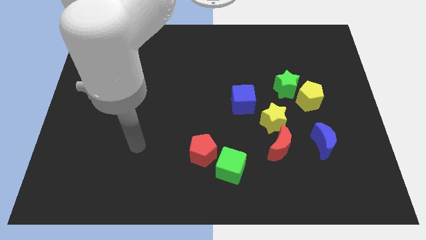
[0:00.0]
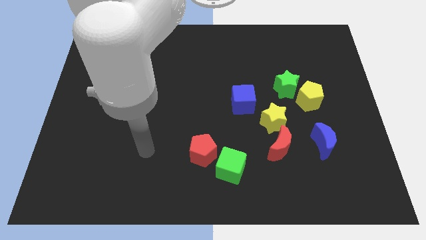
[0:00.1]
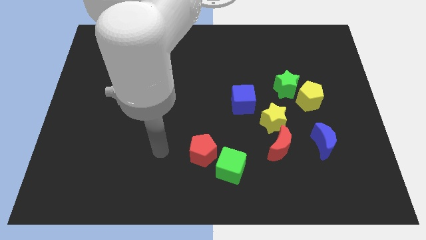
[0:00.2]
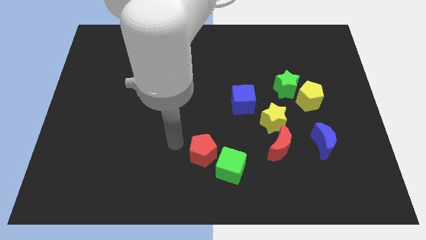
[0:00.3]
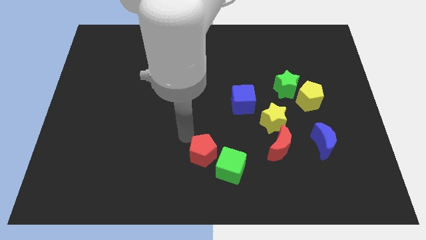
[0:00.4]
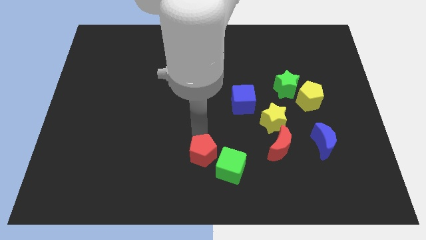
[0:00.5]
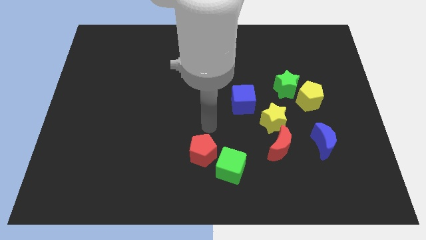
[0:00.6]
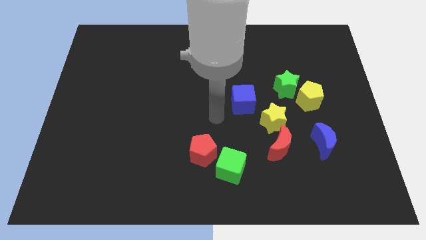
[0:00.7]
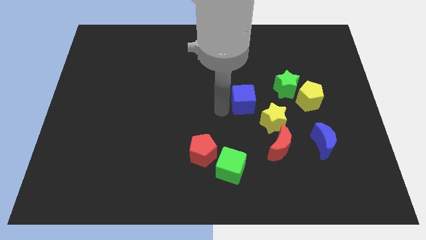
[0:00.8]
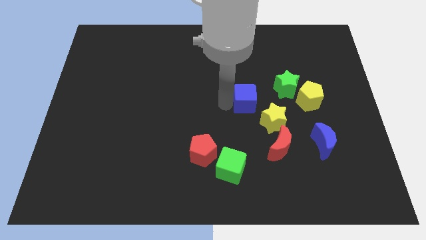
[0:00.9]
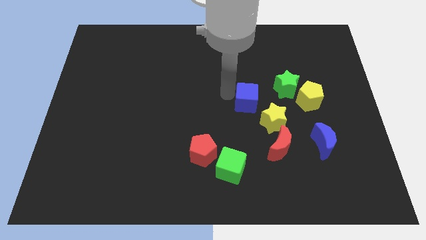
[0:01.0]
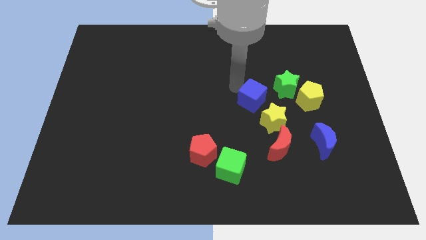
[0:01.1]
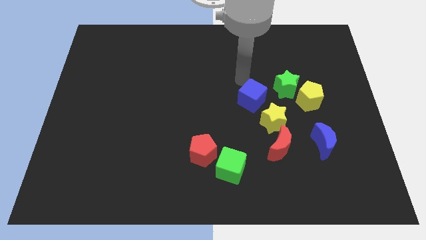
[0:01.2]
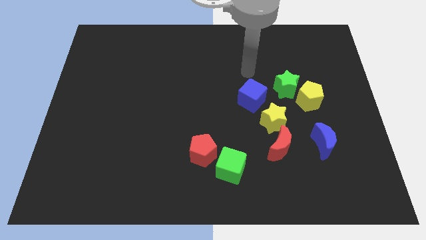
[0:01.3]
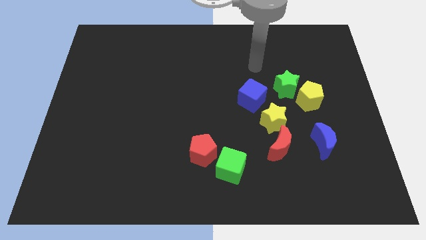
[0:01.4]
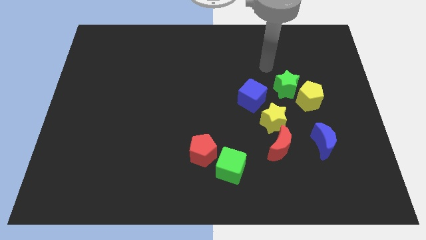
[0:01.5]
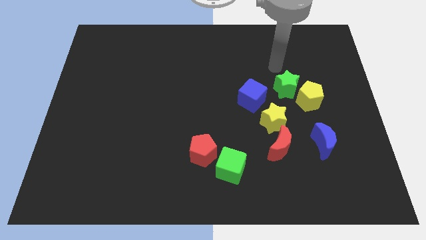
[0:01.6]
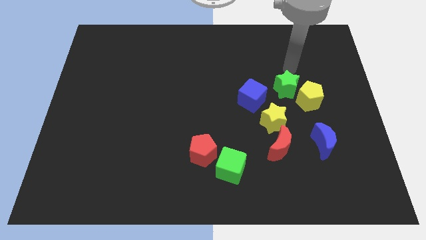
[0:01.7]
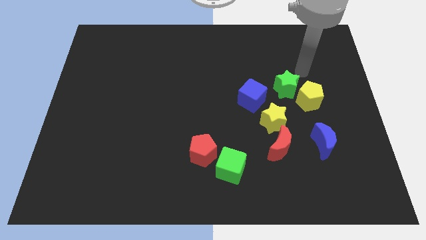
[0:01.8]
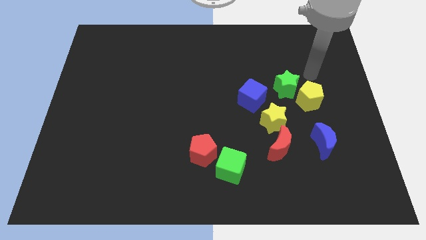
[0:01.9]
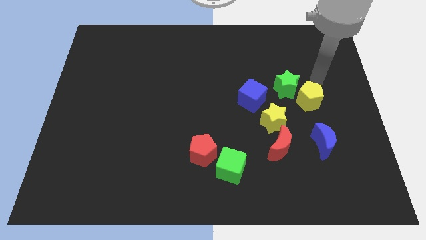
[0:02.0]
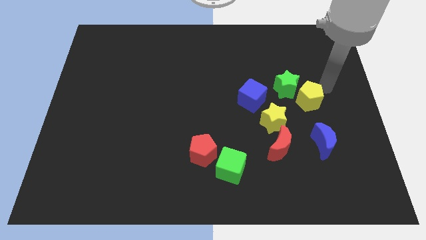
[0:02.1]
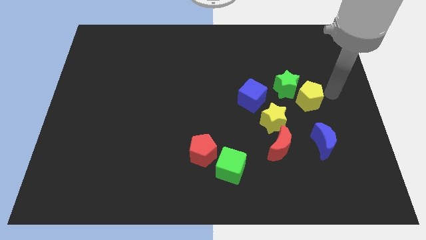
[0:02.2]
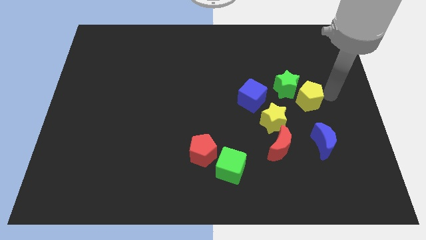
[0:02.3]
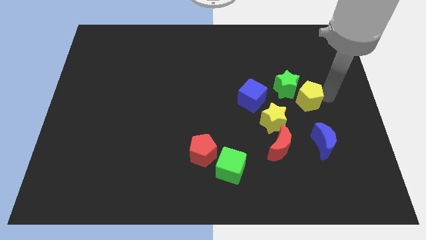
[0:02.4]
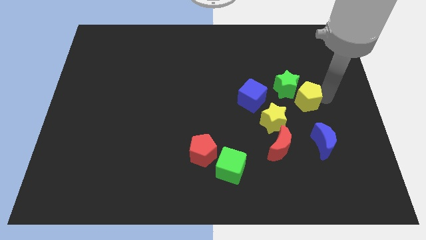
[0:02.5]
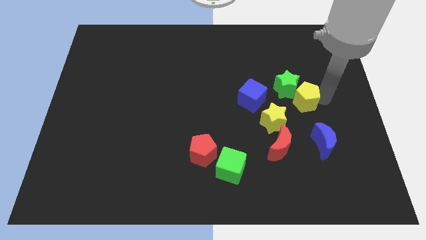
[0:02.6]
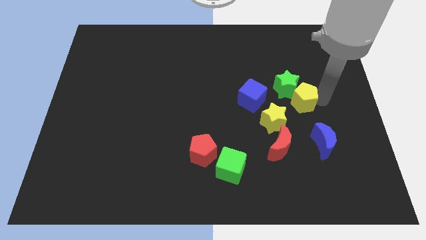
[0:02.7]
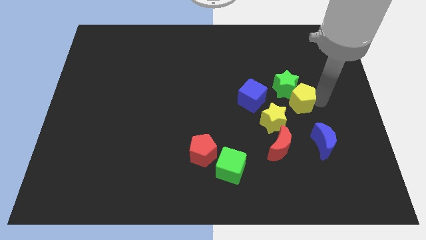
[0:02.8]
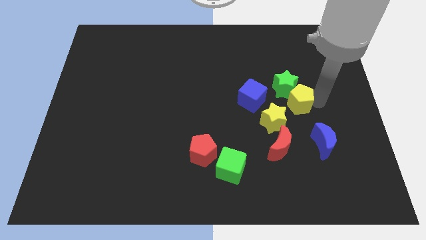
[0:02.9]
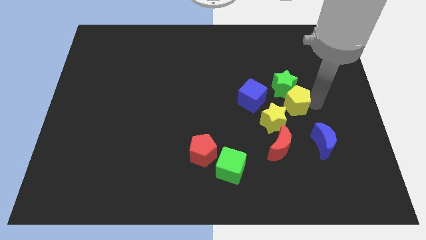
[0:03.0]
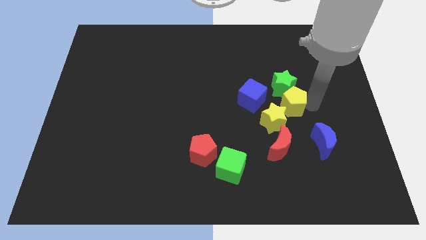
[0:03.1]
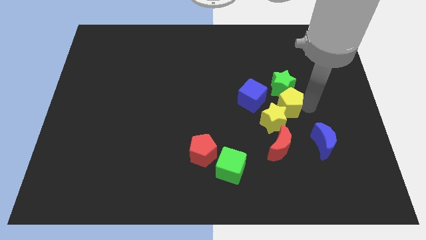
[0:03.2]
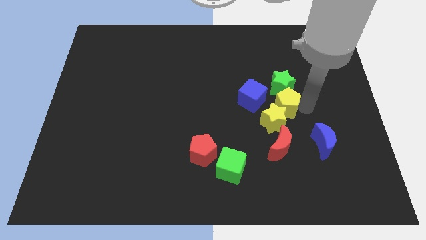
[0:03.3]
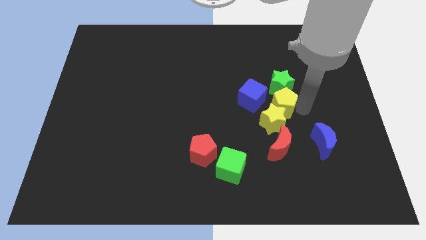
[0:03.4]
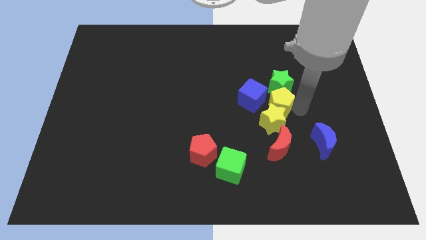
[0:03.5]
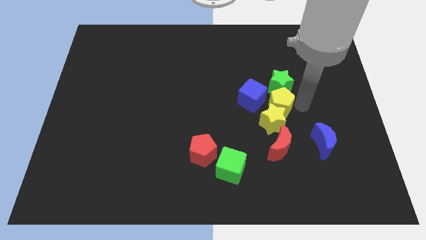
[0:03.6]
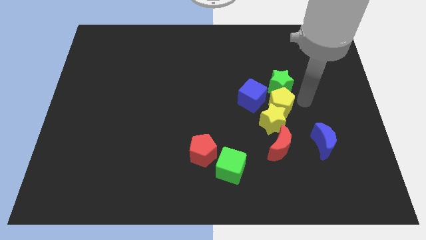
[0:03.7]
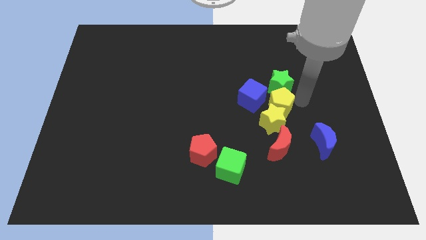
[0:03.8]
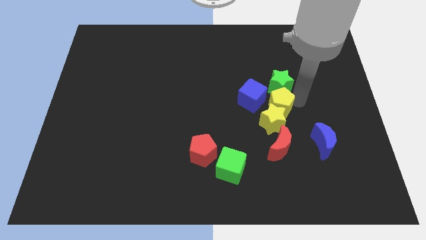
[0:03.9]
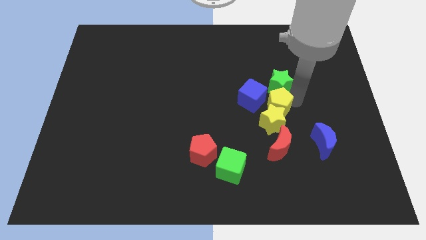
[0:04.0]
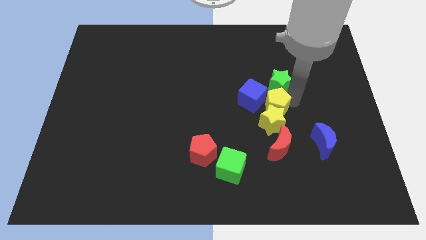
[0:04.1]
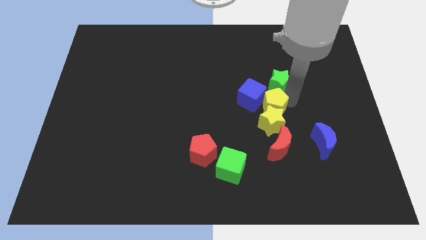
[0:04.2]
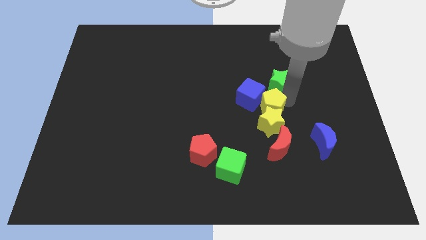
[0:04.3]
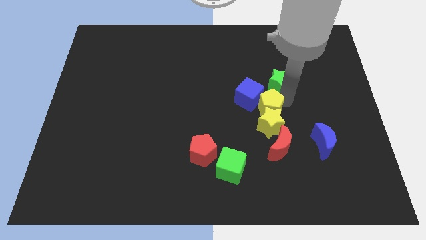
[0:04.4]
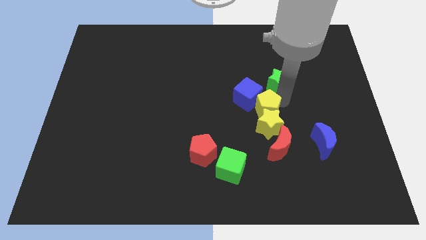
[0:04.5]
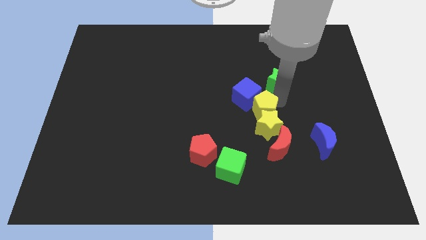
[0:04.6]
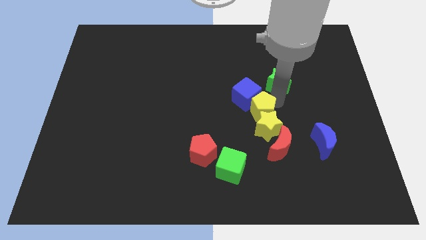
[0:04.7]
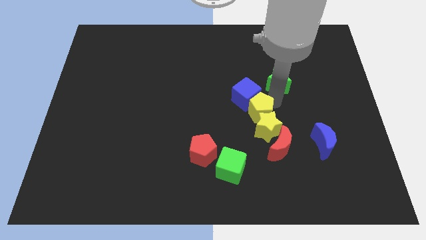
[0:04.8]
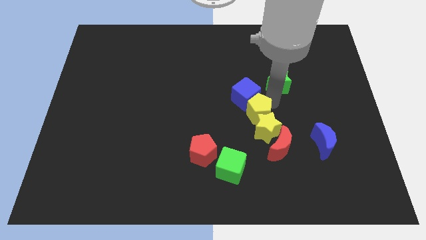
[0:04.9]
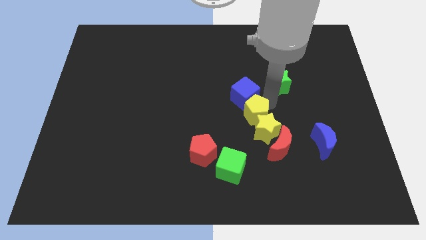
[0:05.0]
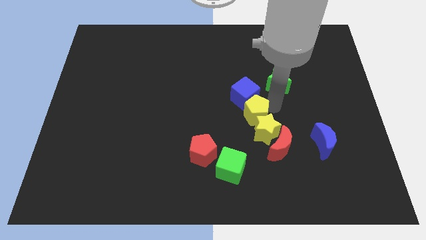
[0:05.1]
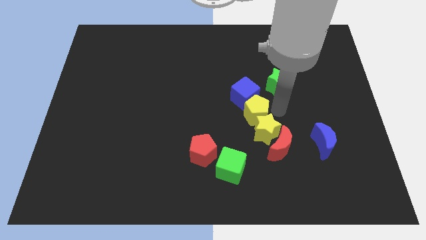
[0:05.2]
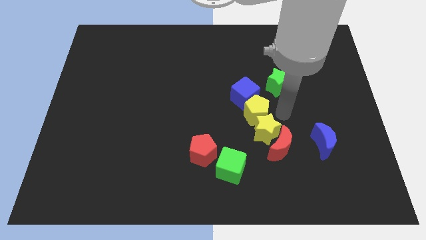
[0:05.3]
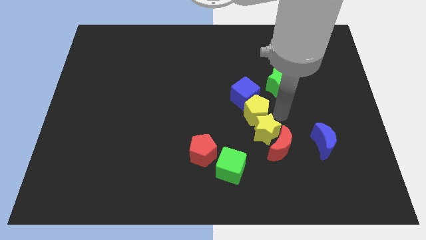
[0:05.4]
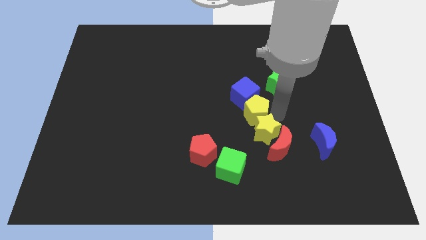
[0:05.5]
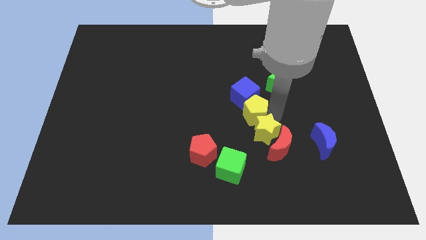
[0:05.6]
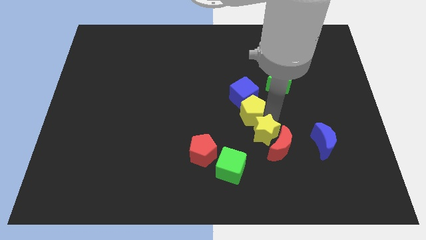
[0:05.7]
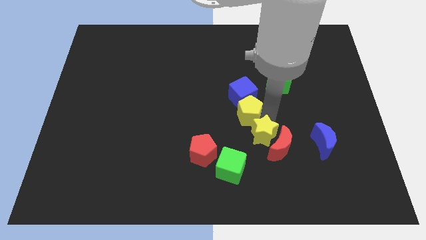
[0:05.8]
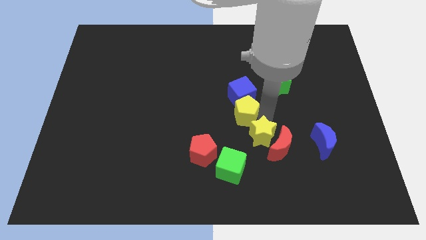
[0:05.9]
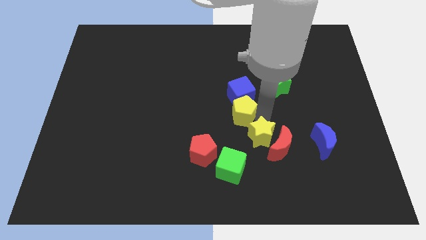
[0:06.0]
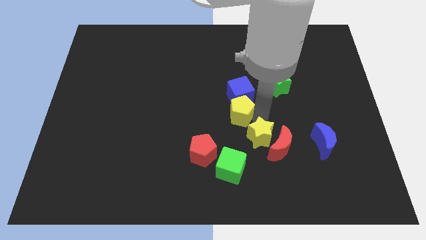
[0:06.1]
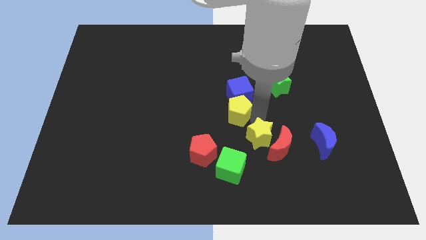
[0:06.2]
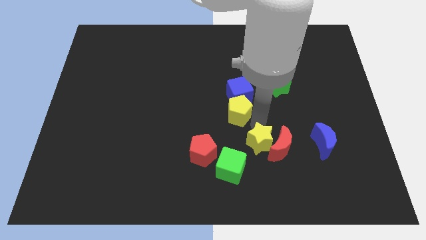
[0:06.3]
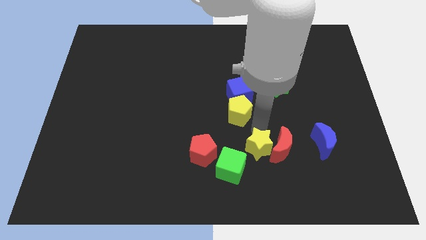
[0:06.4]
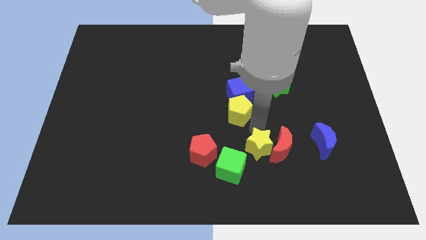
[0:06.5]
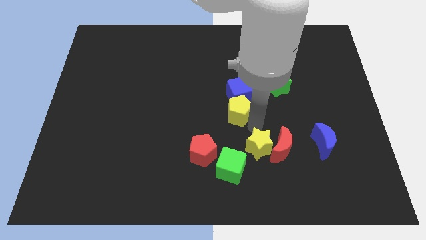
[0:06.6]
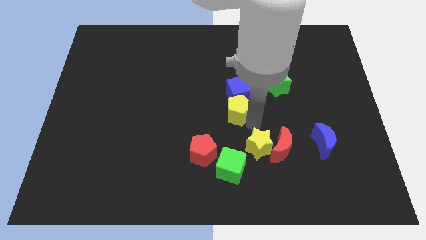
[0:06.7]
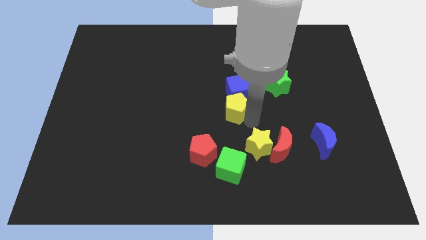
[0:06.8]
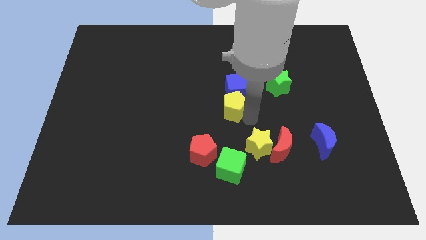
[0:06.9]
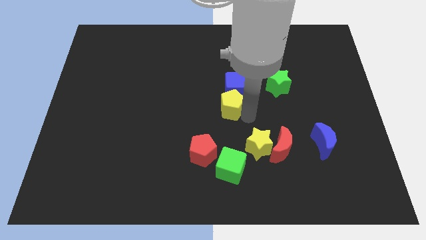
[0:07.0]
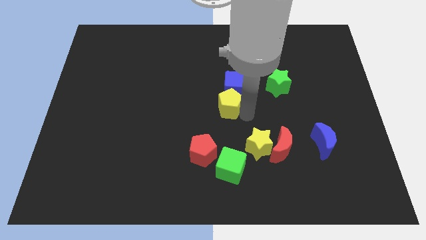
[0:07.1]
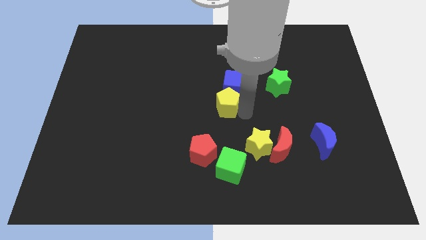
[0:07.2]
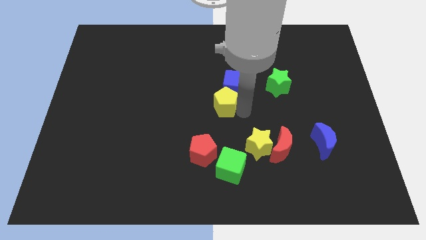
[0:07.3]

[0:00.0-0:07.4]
slide the yellow pentagon left

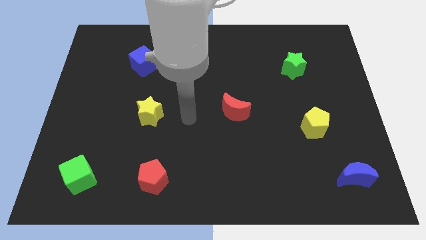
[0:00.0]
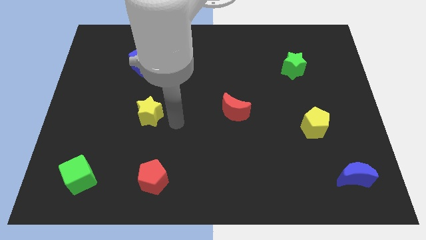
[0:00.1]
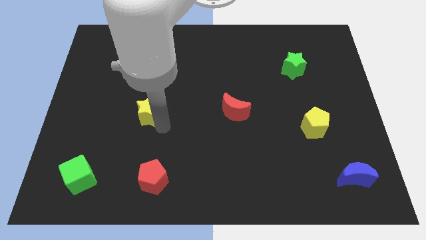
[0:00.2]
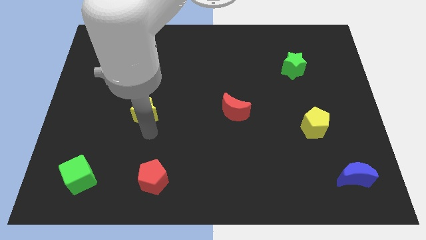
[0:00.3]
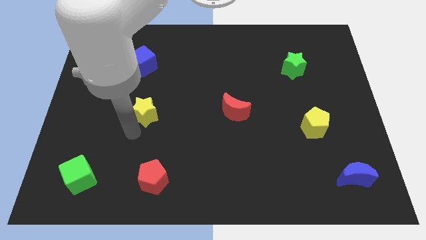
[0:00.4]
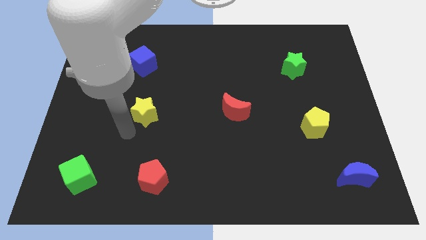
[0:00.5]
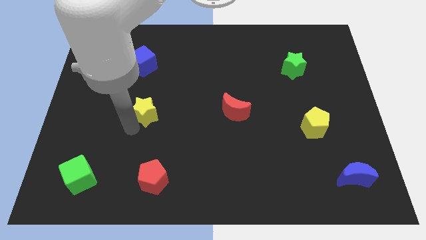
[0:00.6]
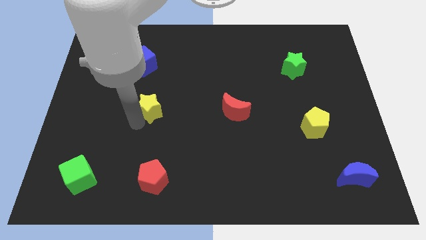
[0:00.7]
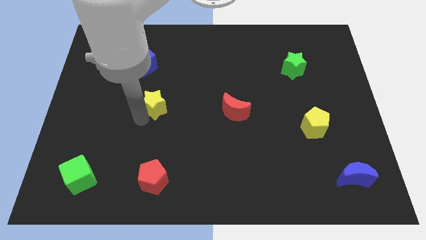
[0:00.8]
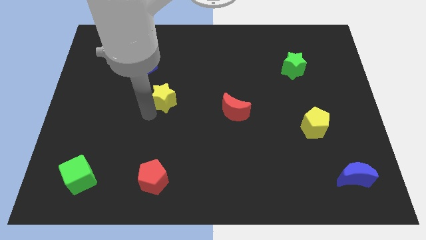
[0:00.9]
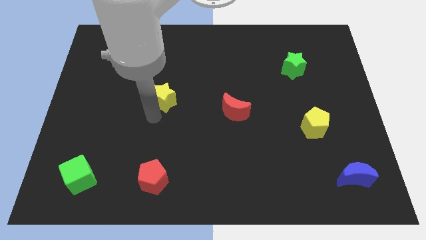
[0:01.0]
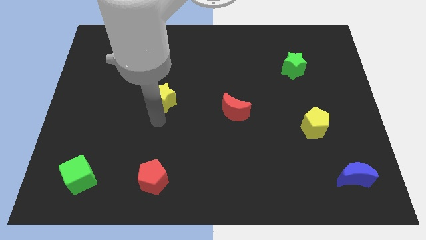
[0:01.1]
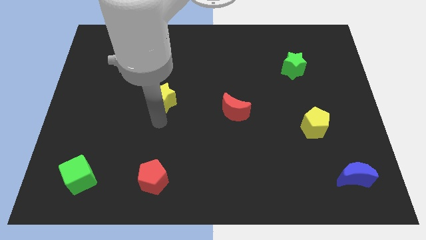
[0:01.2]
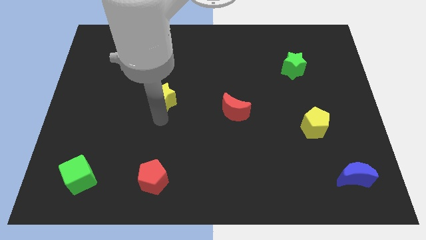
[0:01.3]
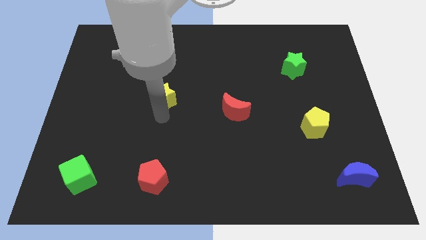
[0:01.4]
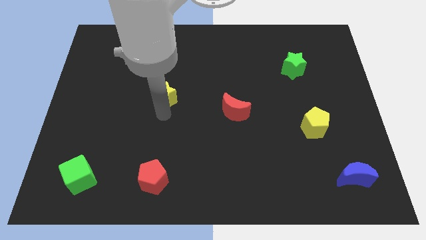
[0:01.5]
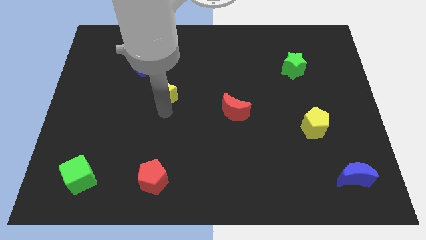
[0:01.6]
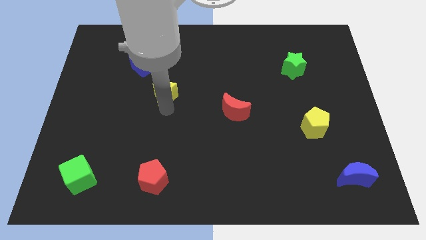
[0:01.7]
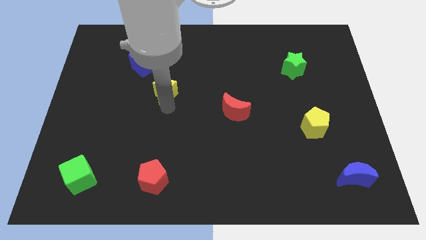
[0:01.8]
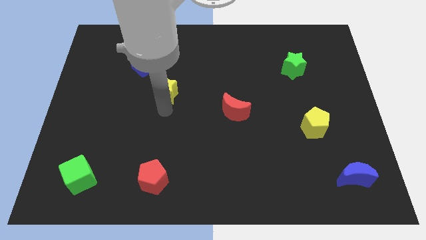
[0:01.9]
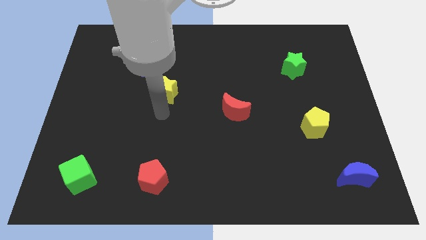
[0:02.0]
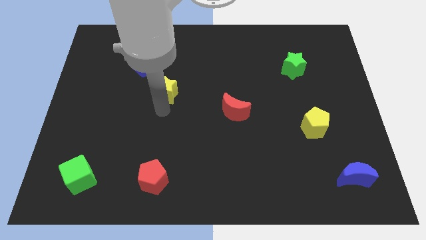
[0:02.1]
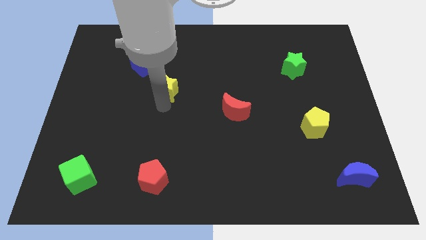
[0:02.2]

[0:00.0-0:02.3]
slightly push the yellow star upwards
